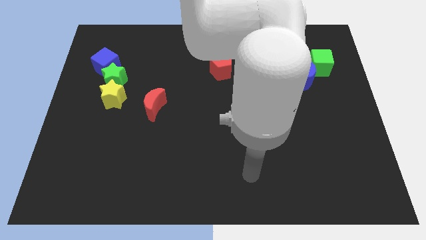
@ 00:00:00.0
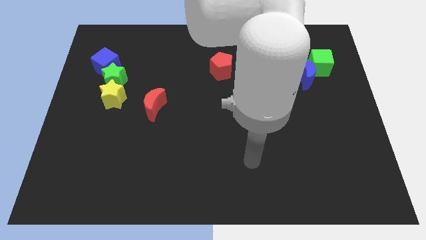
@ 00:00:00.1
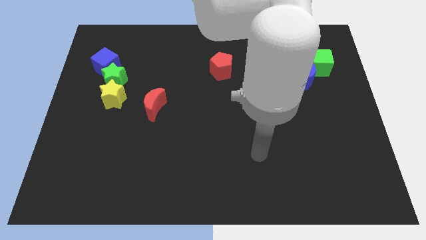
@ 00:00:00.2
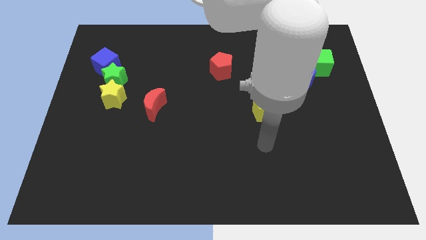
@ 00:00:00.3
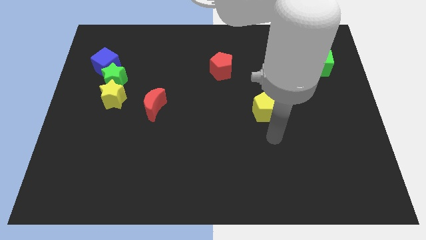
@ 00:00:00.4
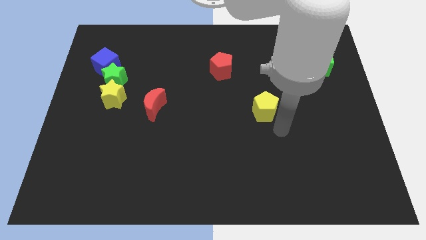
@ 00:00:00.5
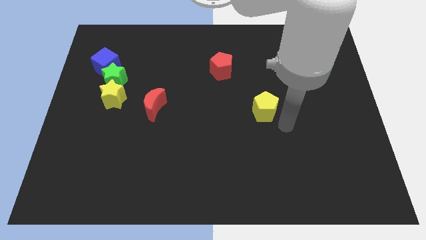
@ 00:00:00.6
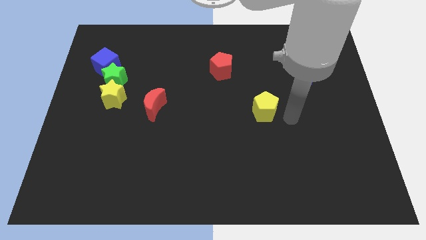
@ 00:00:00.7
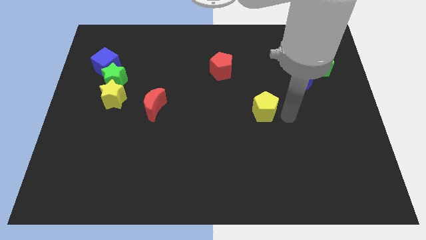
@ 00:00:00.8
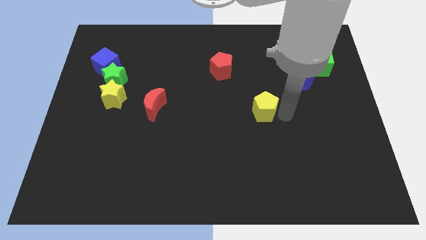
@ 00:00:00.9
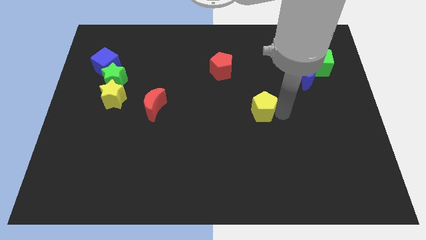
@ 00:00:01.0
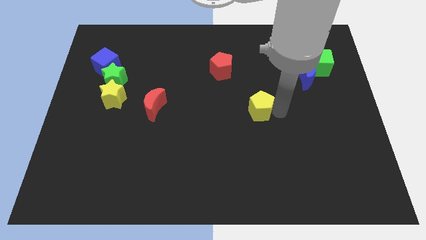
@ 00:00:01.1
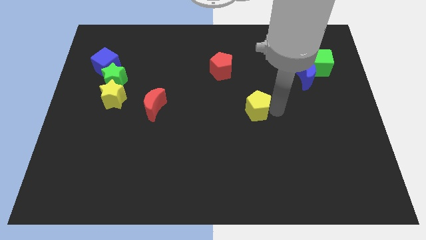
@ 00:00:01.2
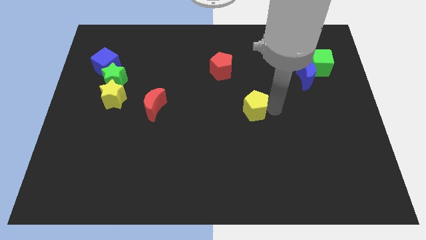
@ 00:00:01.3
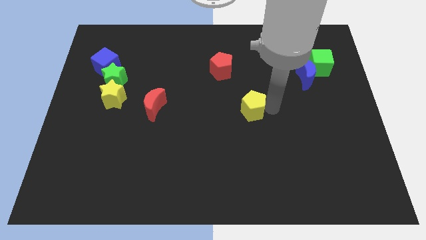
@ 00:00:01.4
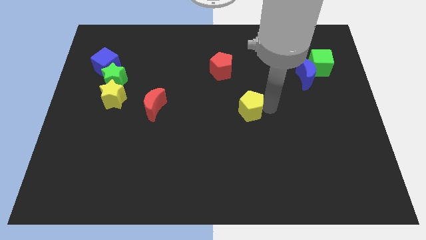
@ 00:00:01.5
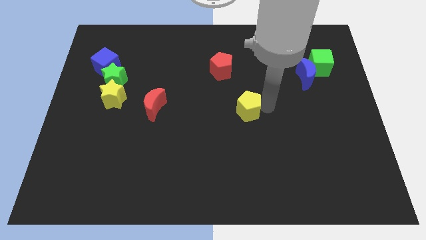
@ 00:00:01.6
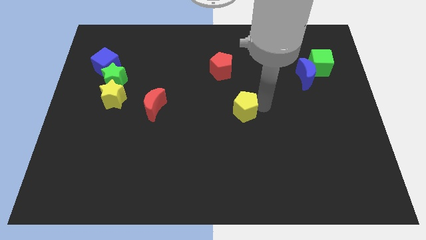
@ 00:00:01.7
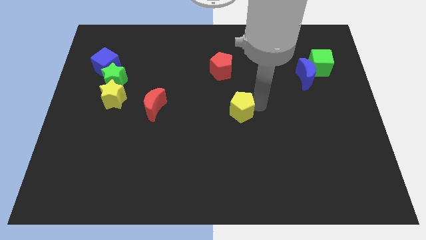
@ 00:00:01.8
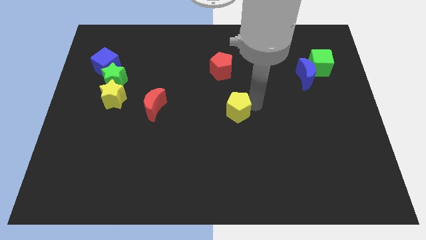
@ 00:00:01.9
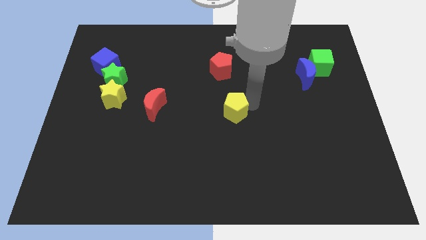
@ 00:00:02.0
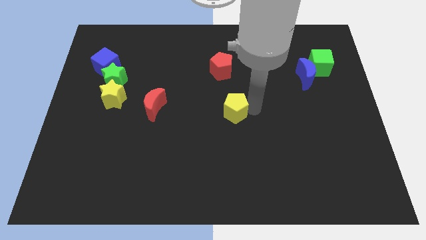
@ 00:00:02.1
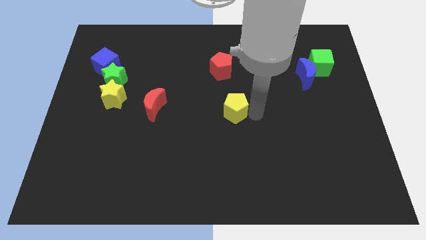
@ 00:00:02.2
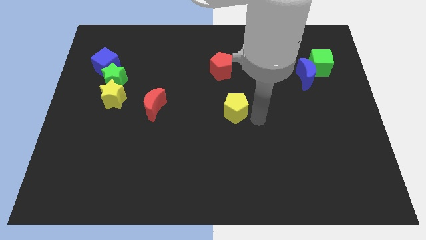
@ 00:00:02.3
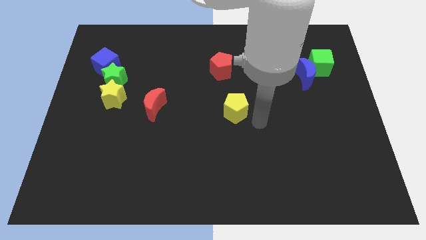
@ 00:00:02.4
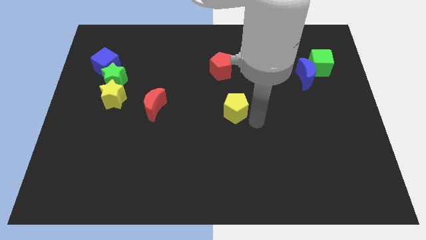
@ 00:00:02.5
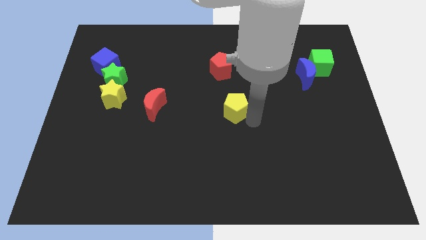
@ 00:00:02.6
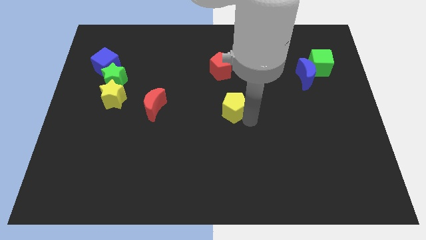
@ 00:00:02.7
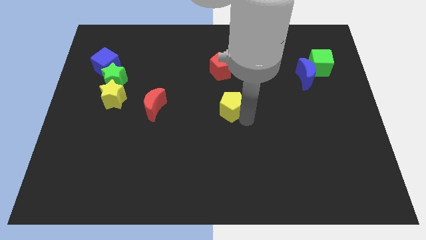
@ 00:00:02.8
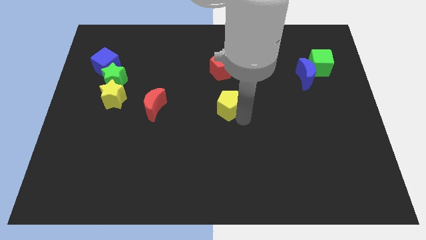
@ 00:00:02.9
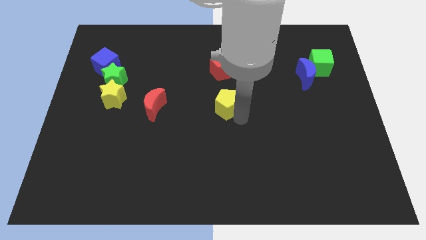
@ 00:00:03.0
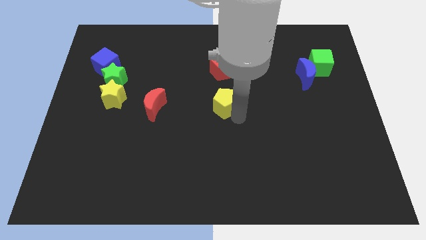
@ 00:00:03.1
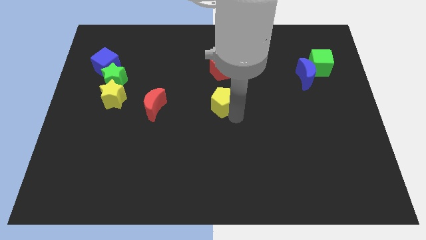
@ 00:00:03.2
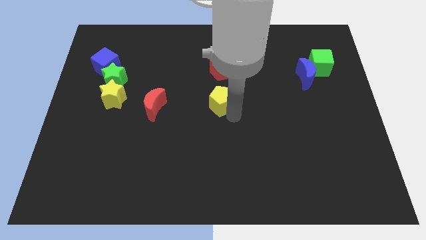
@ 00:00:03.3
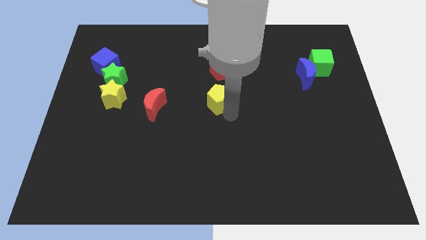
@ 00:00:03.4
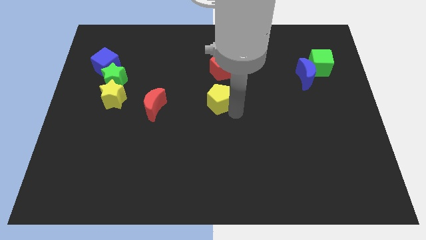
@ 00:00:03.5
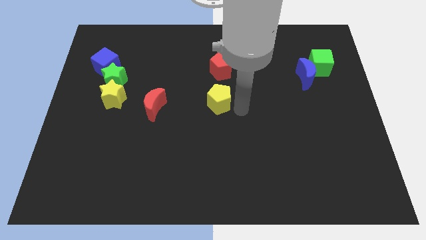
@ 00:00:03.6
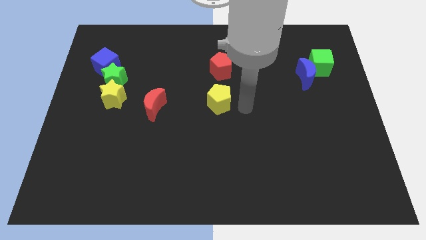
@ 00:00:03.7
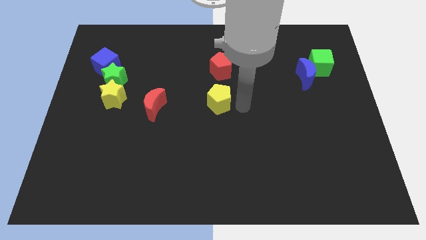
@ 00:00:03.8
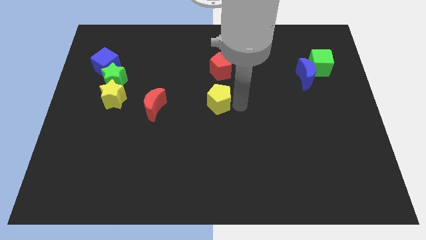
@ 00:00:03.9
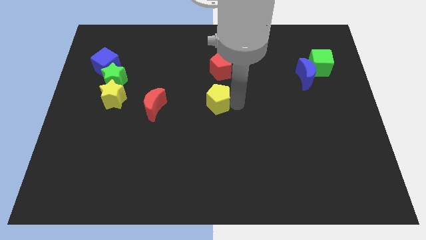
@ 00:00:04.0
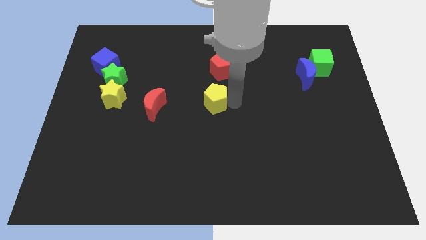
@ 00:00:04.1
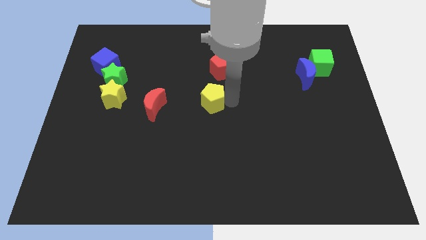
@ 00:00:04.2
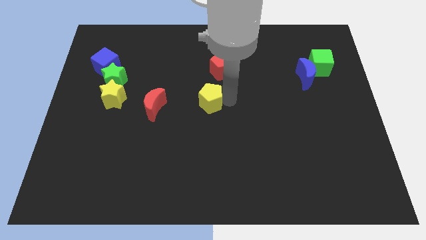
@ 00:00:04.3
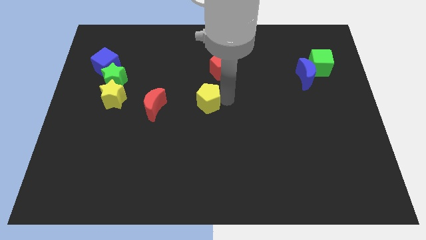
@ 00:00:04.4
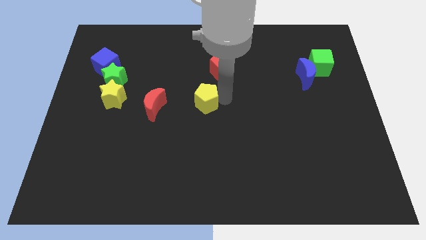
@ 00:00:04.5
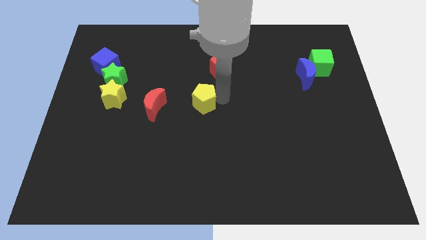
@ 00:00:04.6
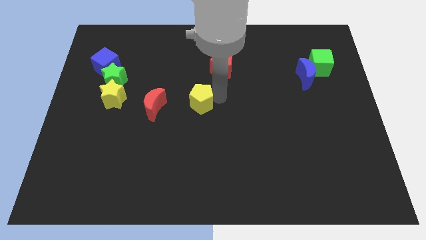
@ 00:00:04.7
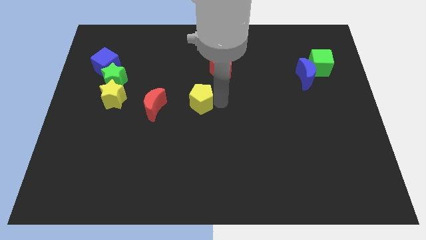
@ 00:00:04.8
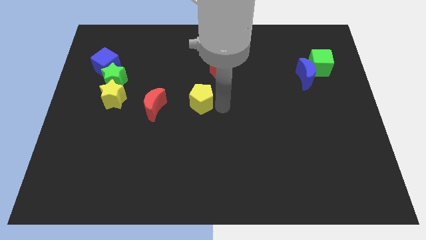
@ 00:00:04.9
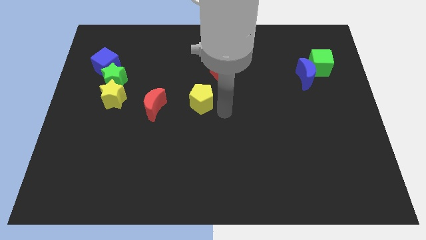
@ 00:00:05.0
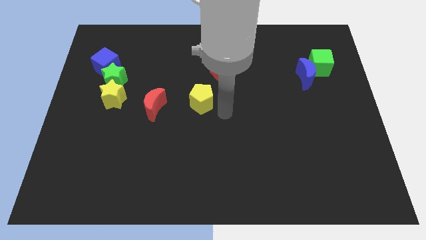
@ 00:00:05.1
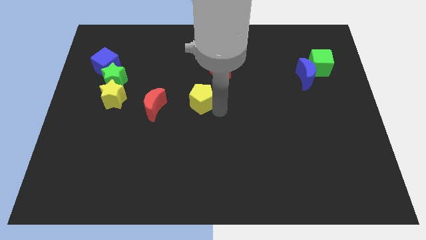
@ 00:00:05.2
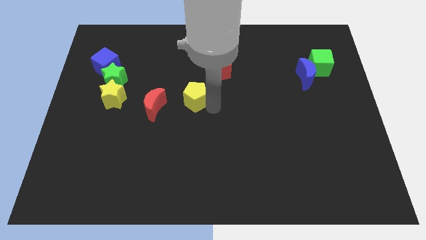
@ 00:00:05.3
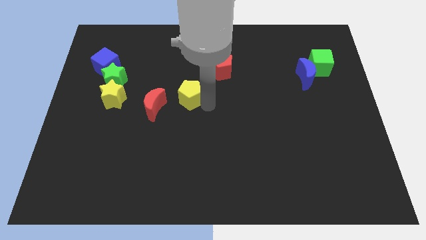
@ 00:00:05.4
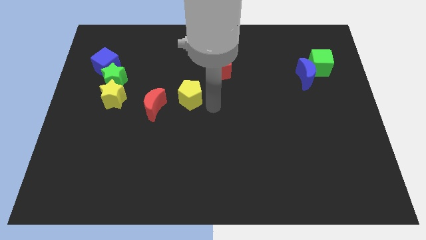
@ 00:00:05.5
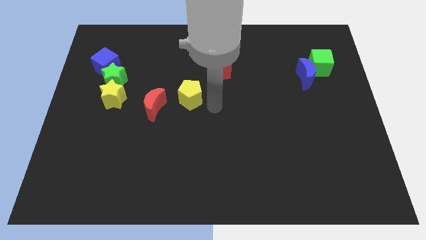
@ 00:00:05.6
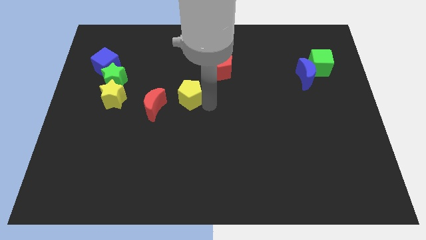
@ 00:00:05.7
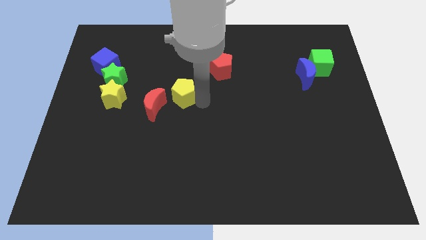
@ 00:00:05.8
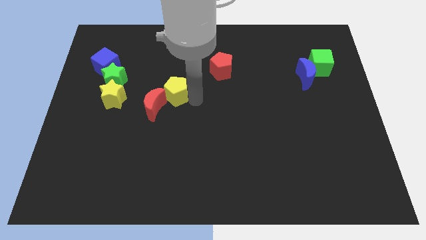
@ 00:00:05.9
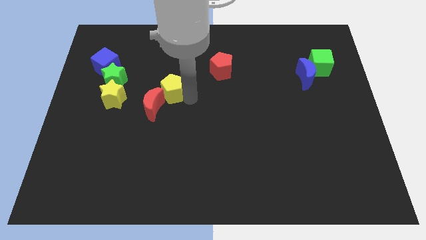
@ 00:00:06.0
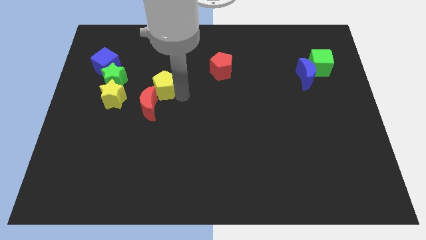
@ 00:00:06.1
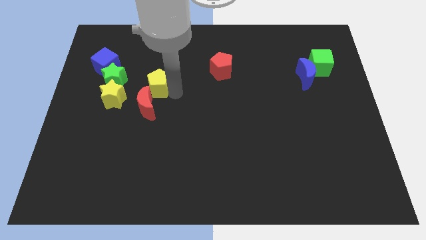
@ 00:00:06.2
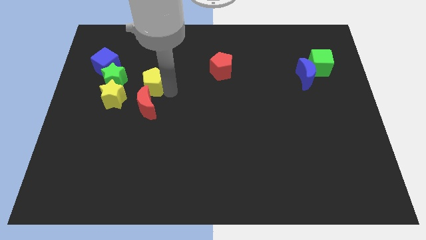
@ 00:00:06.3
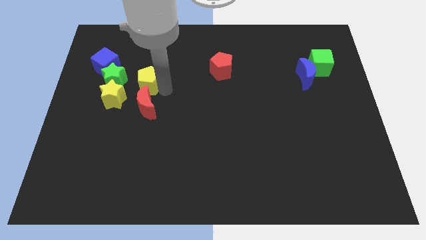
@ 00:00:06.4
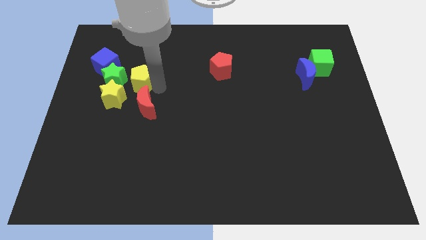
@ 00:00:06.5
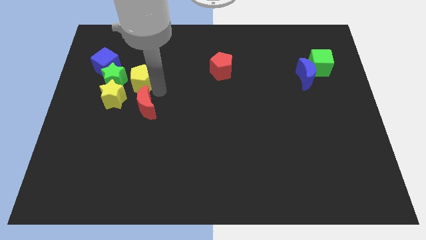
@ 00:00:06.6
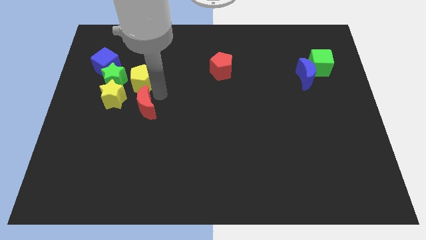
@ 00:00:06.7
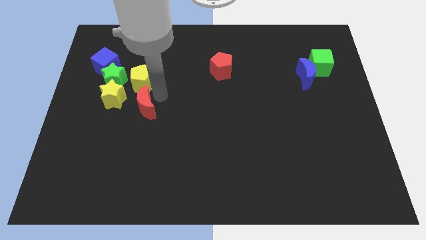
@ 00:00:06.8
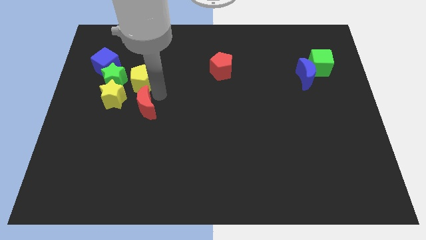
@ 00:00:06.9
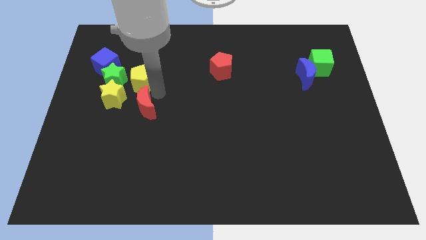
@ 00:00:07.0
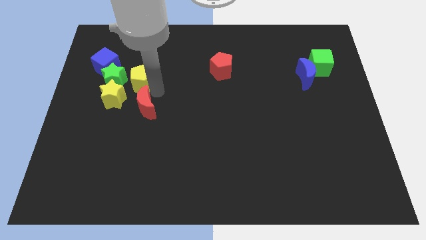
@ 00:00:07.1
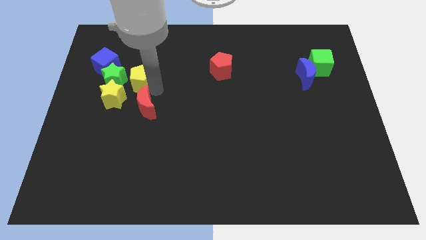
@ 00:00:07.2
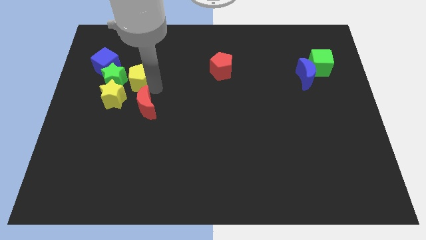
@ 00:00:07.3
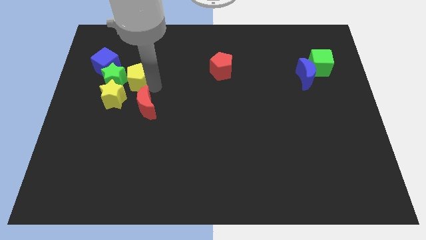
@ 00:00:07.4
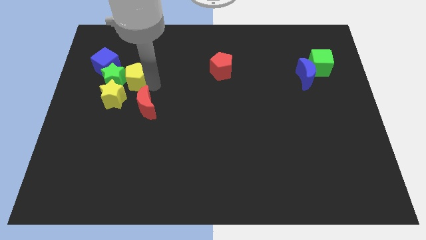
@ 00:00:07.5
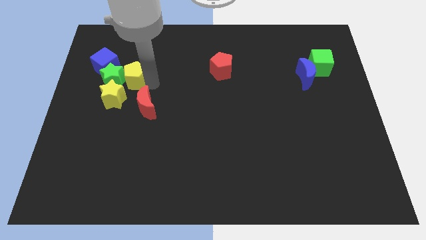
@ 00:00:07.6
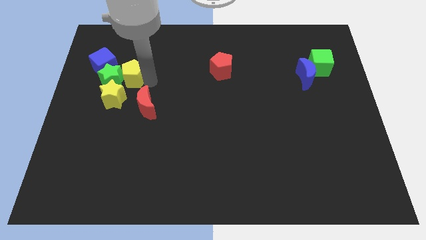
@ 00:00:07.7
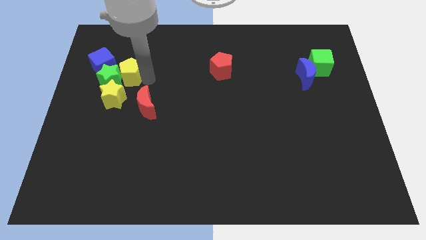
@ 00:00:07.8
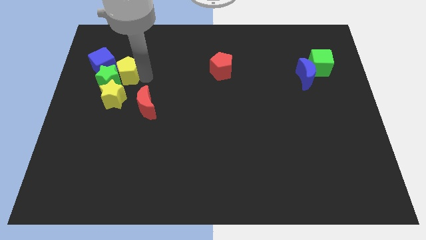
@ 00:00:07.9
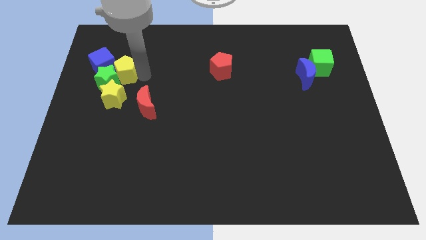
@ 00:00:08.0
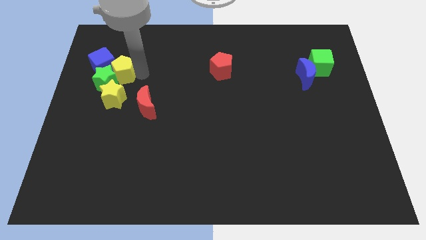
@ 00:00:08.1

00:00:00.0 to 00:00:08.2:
slide the yellow pentagon to the blue cube
